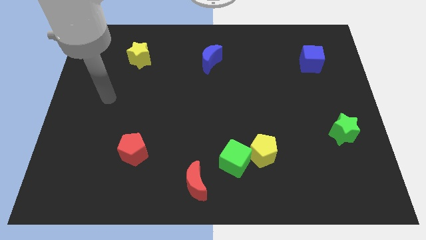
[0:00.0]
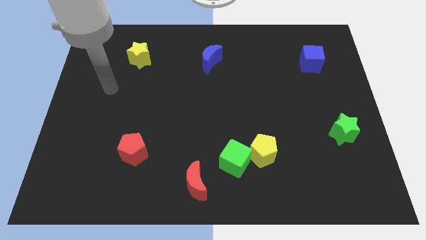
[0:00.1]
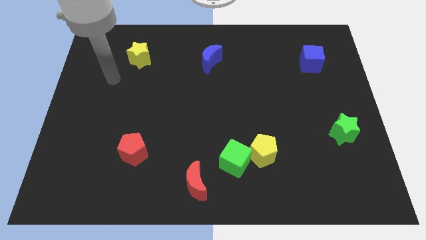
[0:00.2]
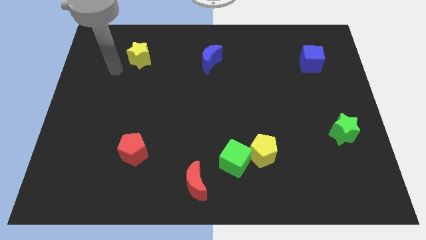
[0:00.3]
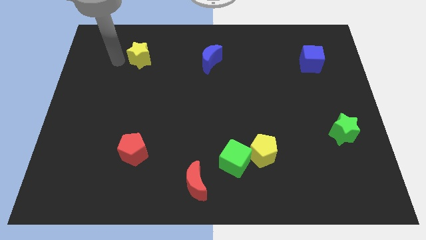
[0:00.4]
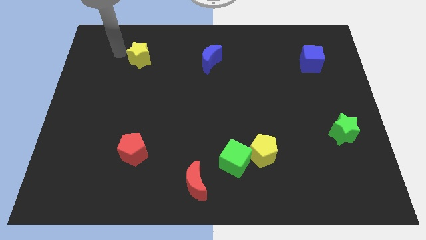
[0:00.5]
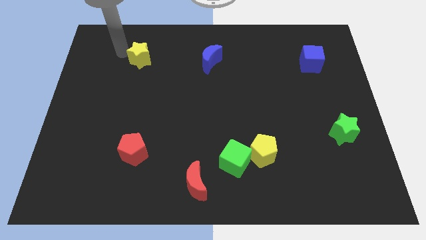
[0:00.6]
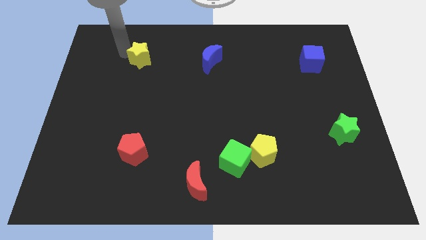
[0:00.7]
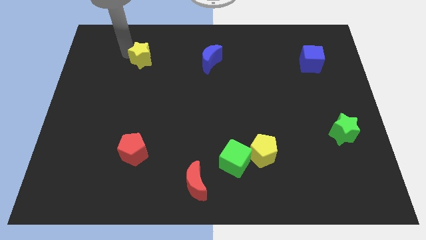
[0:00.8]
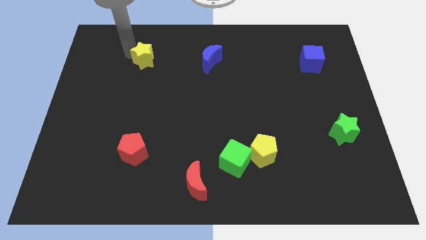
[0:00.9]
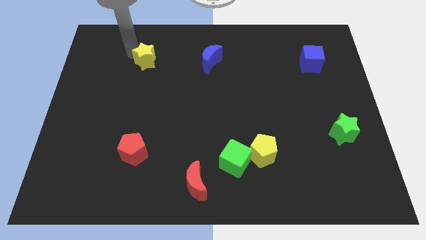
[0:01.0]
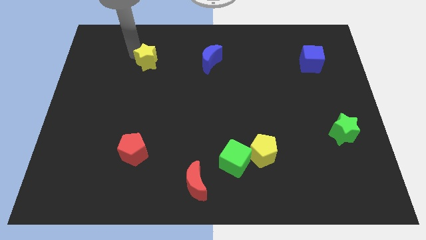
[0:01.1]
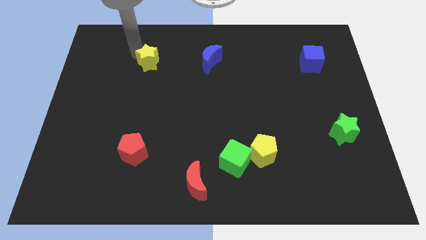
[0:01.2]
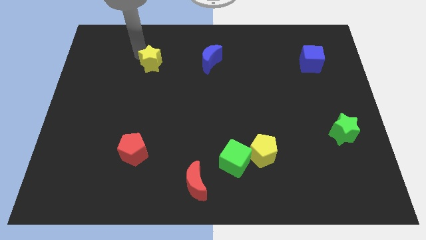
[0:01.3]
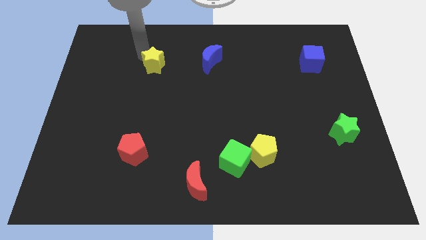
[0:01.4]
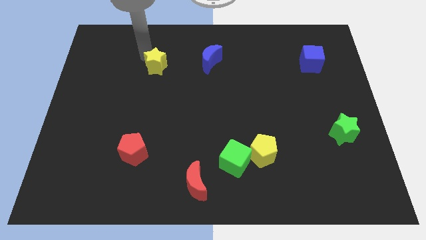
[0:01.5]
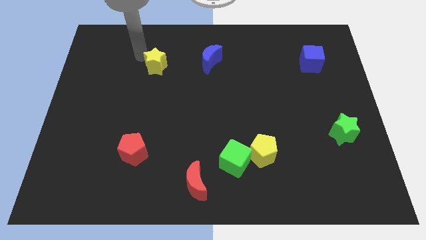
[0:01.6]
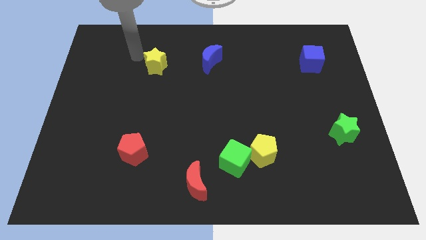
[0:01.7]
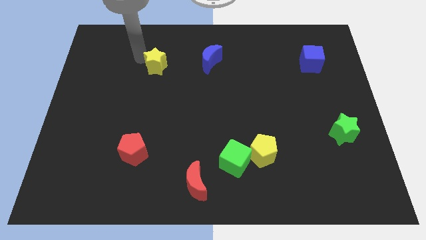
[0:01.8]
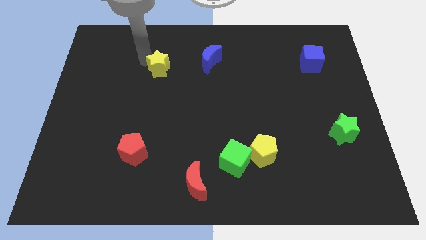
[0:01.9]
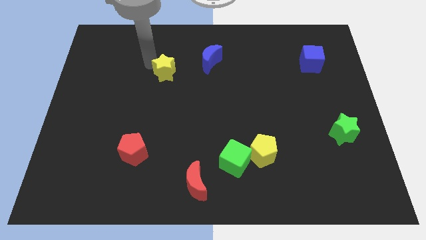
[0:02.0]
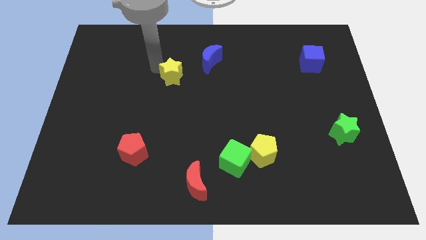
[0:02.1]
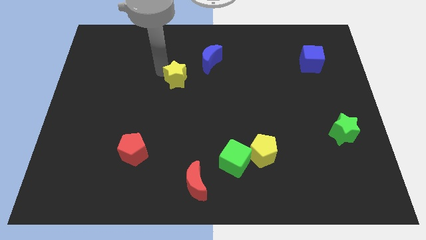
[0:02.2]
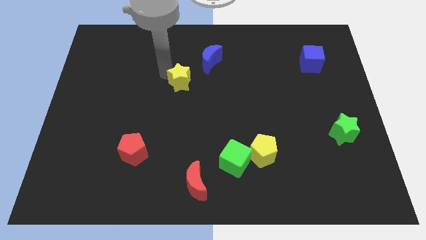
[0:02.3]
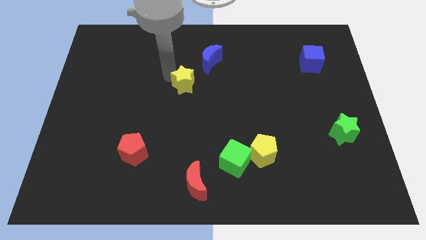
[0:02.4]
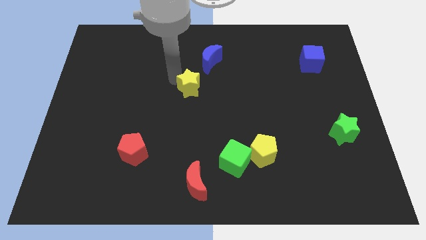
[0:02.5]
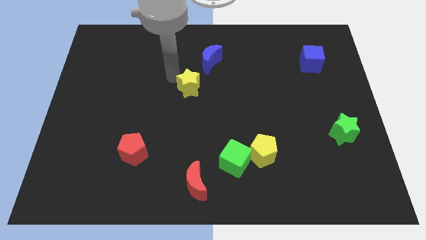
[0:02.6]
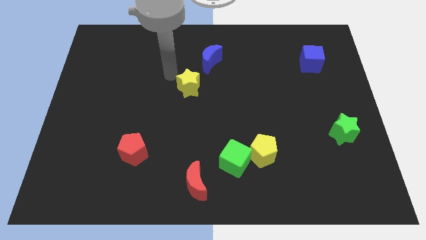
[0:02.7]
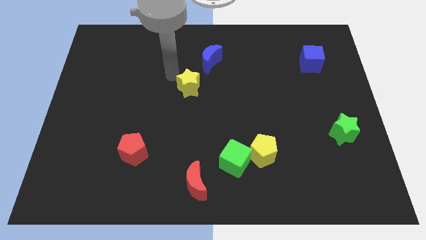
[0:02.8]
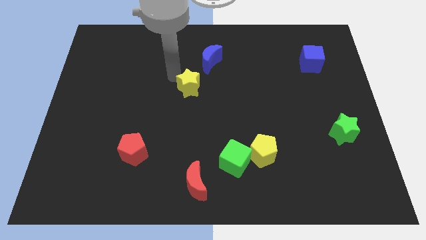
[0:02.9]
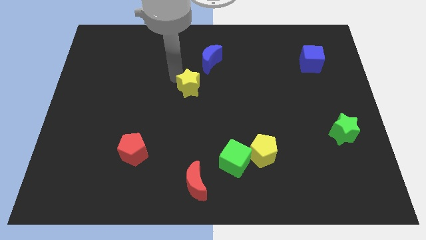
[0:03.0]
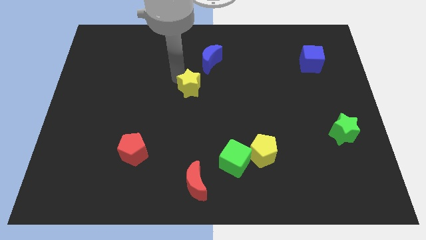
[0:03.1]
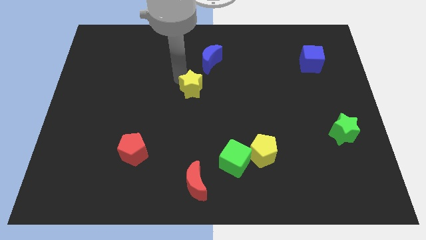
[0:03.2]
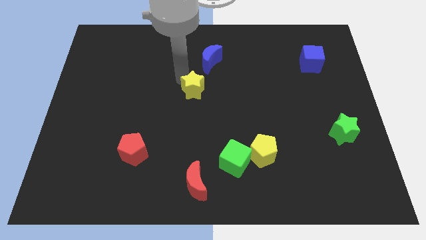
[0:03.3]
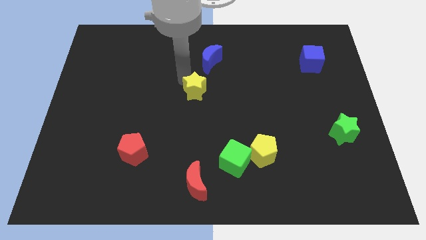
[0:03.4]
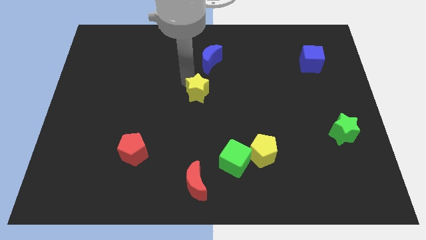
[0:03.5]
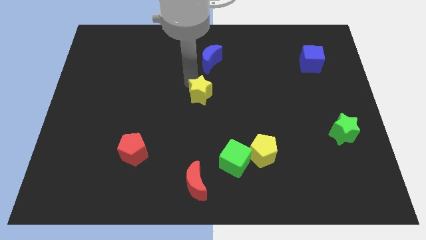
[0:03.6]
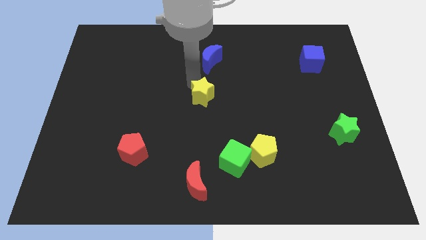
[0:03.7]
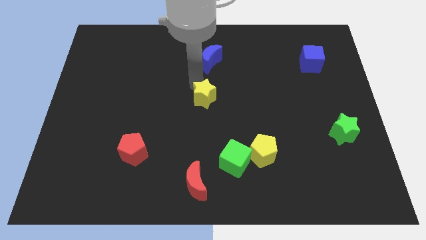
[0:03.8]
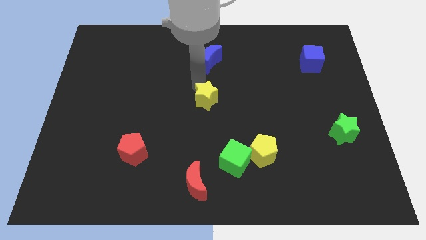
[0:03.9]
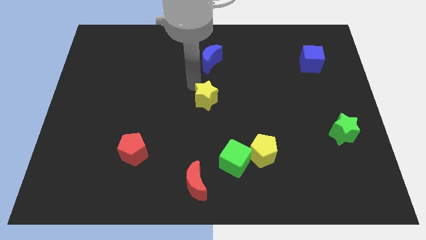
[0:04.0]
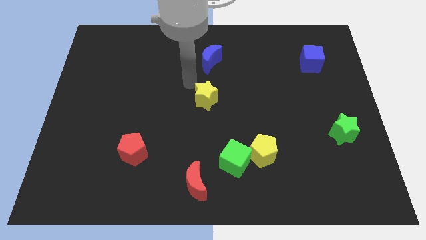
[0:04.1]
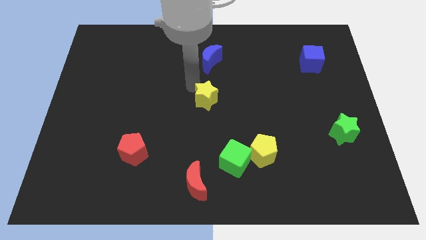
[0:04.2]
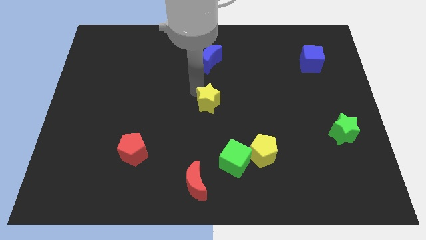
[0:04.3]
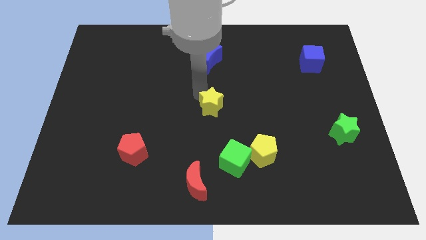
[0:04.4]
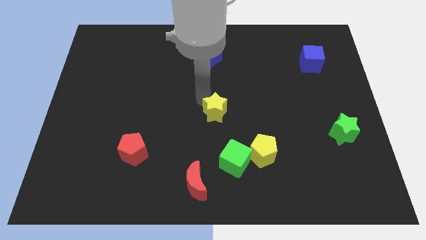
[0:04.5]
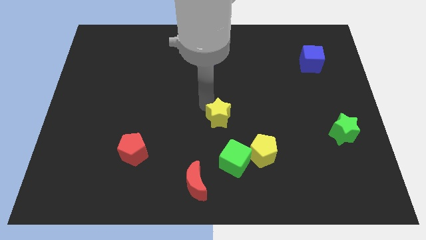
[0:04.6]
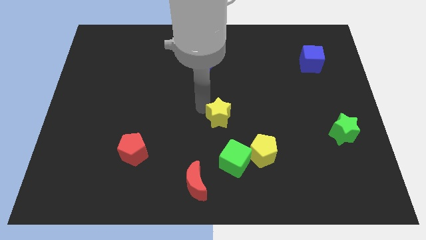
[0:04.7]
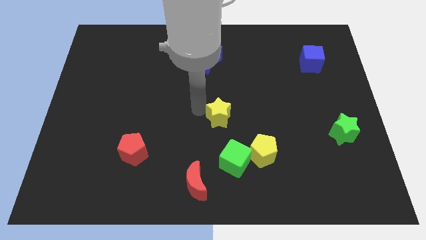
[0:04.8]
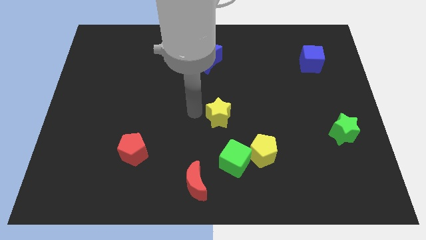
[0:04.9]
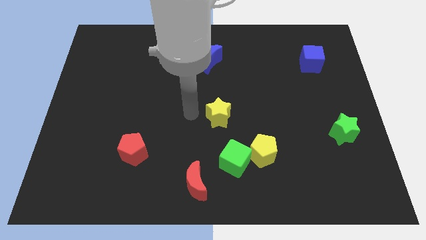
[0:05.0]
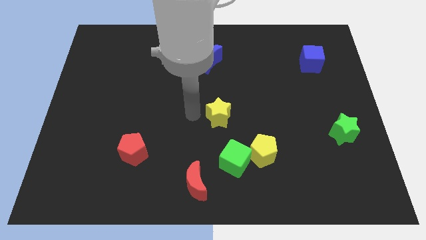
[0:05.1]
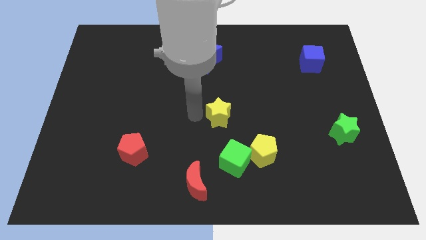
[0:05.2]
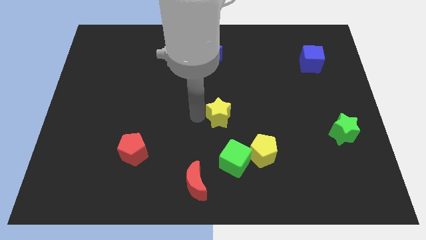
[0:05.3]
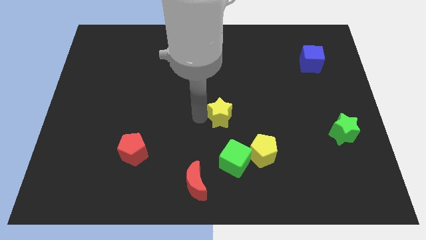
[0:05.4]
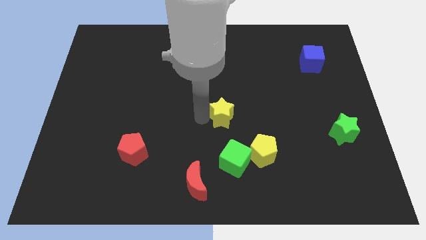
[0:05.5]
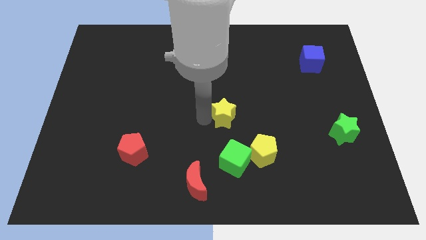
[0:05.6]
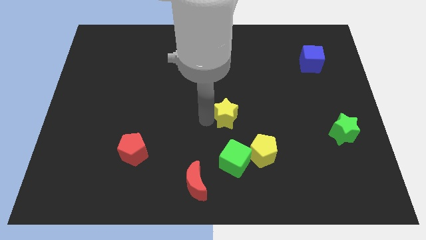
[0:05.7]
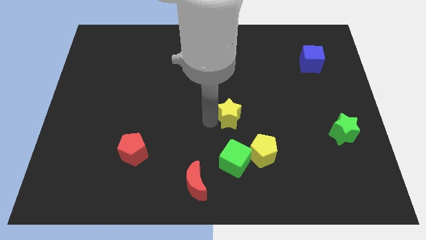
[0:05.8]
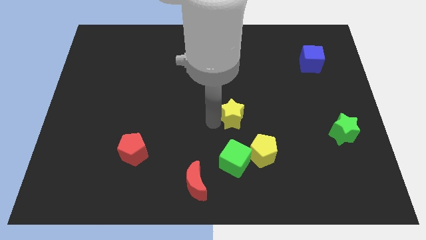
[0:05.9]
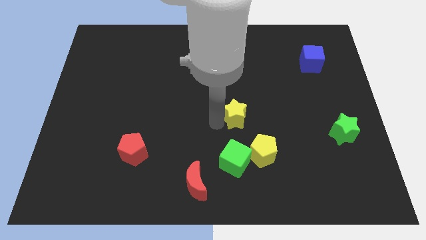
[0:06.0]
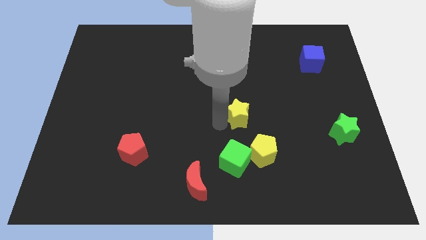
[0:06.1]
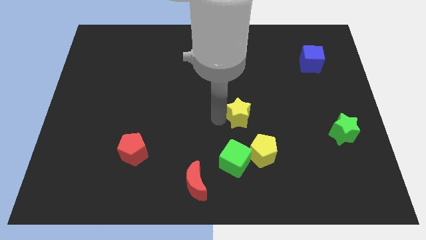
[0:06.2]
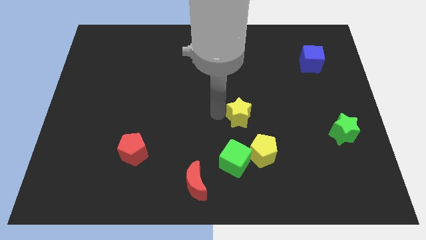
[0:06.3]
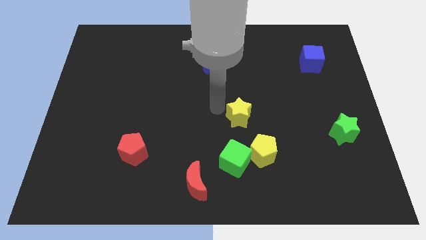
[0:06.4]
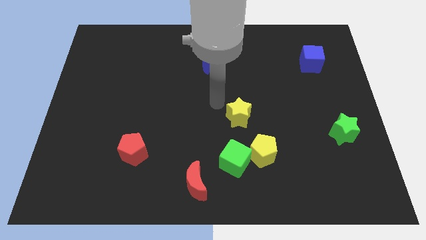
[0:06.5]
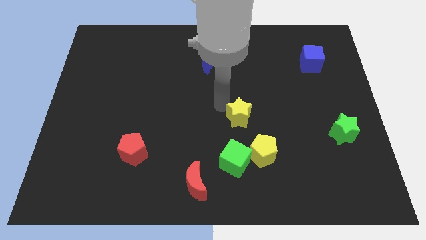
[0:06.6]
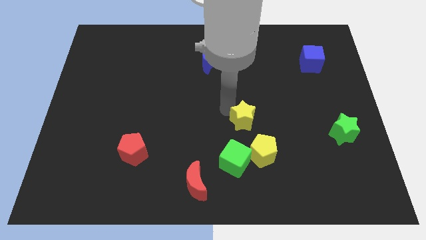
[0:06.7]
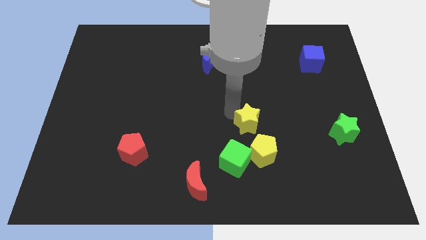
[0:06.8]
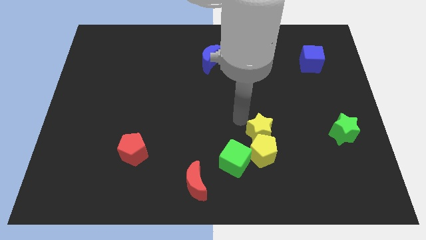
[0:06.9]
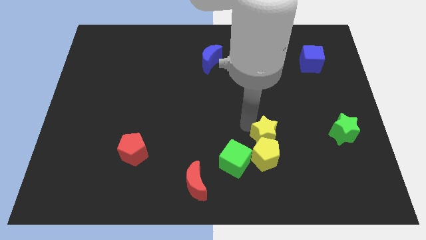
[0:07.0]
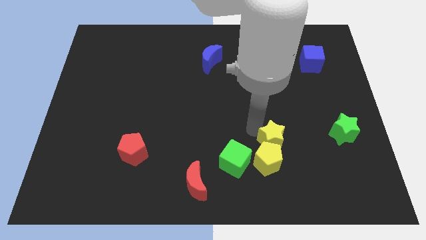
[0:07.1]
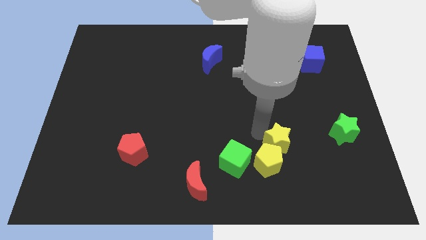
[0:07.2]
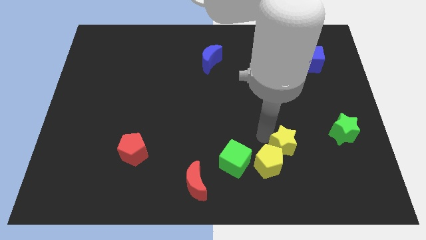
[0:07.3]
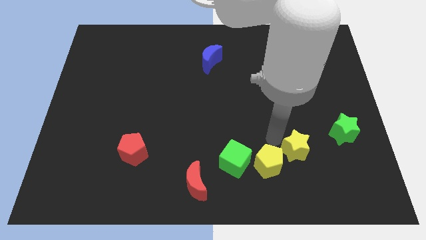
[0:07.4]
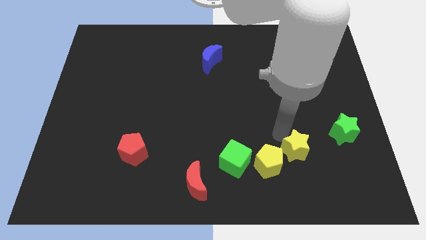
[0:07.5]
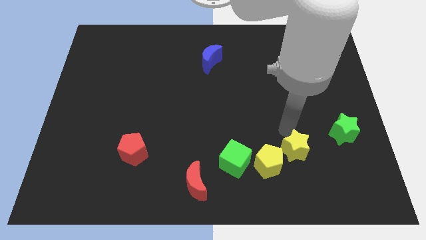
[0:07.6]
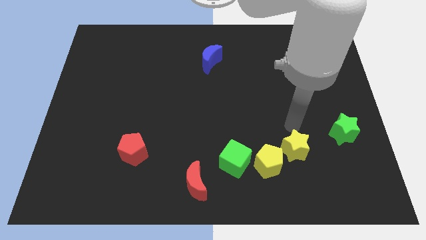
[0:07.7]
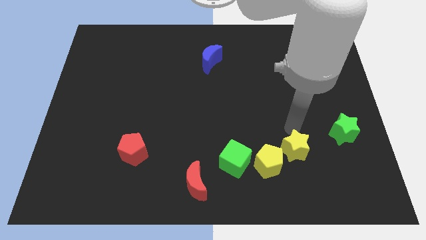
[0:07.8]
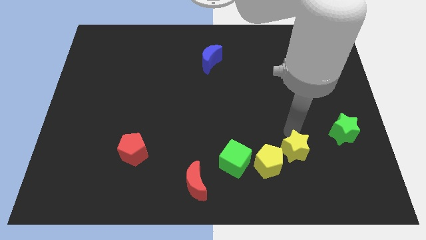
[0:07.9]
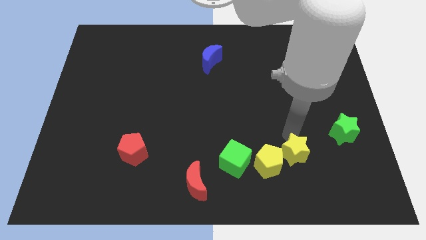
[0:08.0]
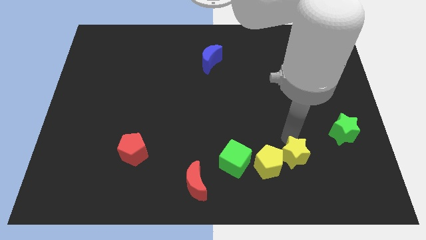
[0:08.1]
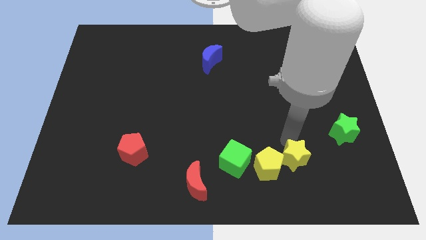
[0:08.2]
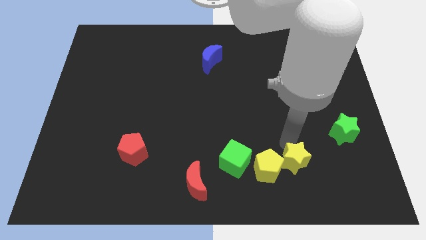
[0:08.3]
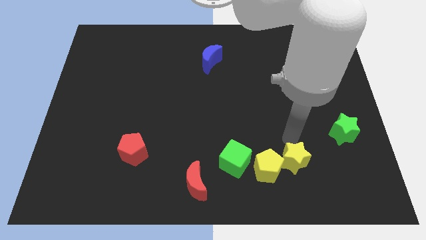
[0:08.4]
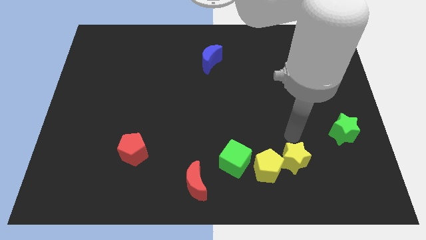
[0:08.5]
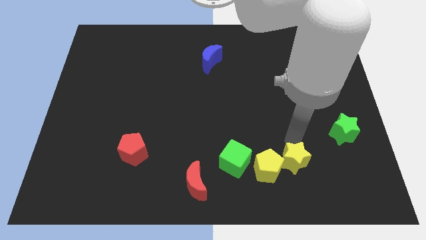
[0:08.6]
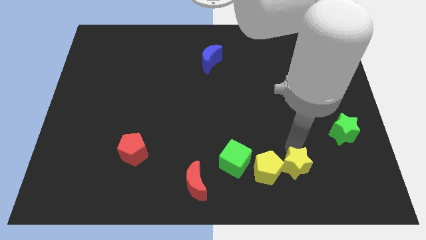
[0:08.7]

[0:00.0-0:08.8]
slide the yellow star to the bottom right of the yellow pentagon
